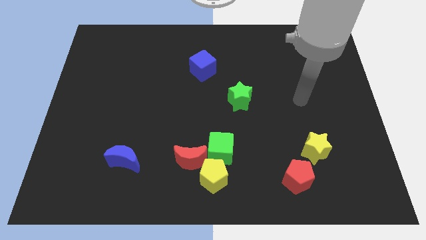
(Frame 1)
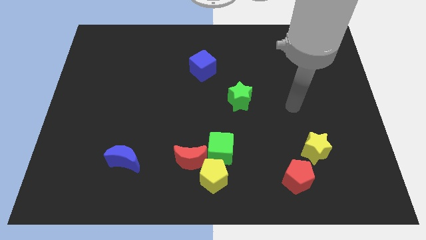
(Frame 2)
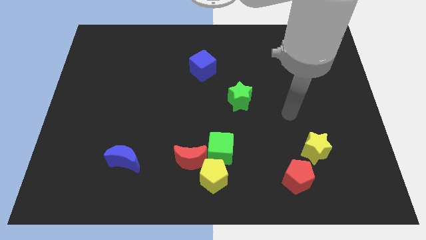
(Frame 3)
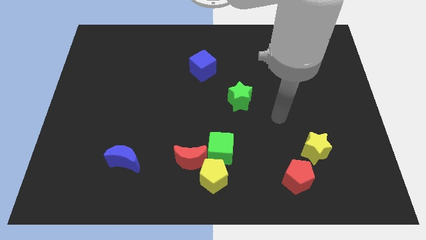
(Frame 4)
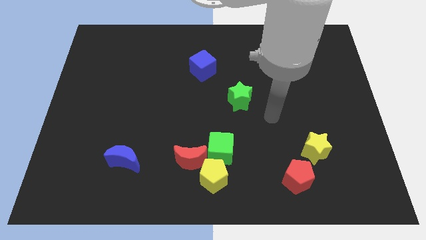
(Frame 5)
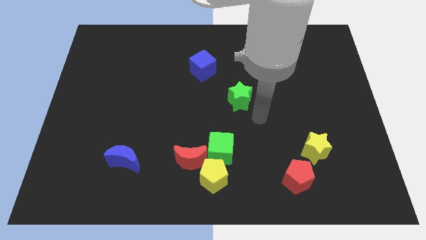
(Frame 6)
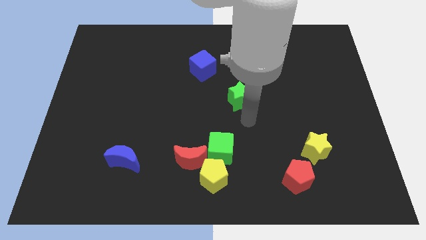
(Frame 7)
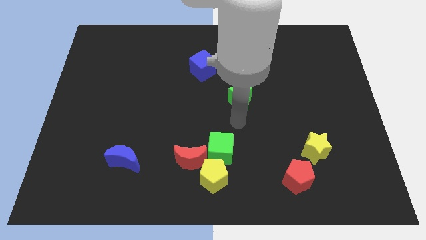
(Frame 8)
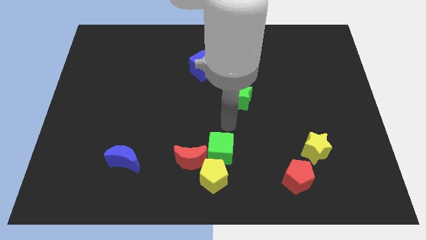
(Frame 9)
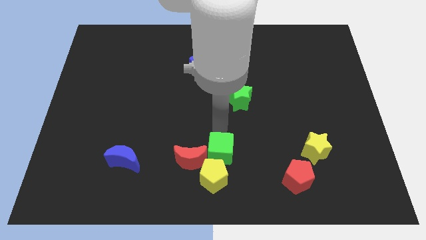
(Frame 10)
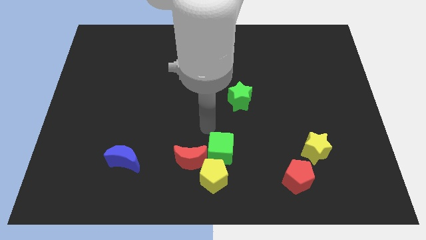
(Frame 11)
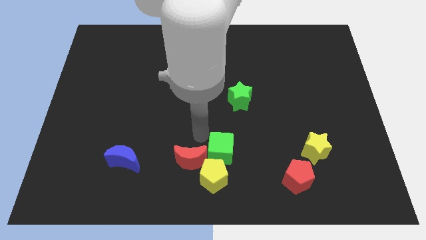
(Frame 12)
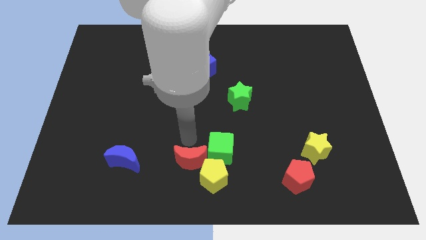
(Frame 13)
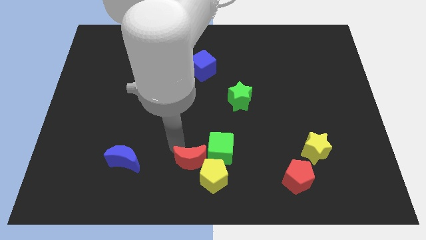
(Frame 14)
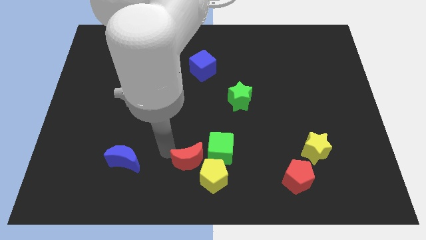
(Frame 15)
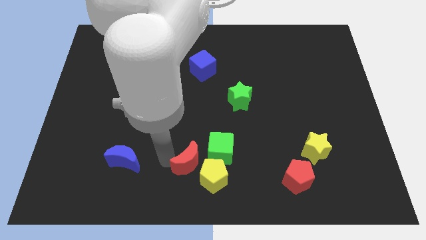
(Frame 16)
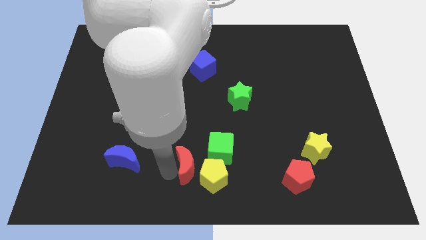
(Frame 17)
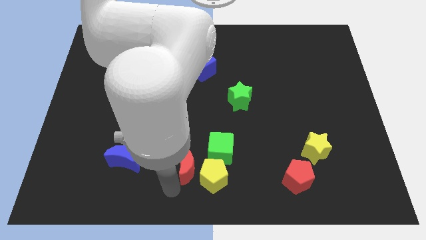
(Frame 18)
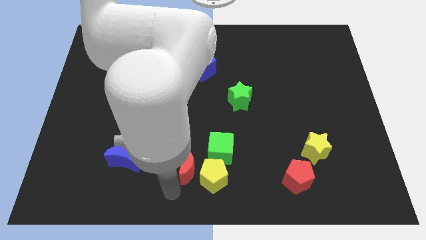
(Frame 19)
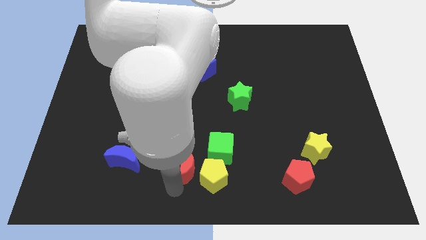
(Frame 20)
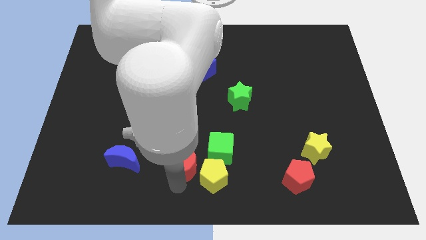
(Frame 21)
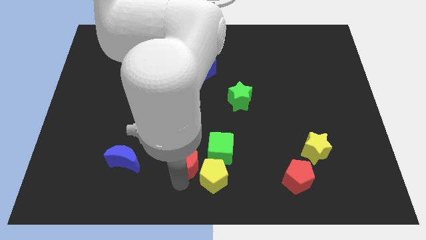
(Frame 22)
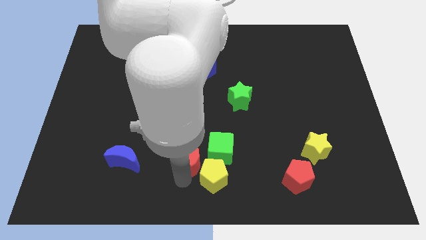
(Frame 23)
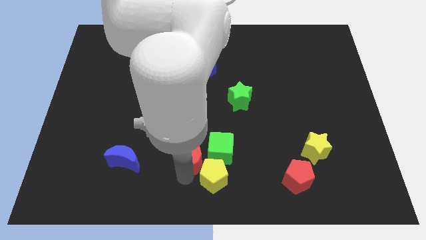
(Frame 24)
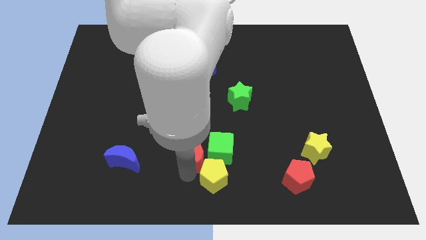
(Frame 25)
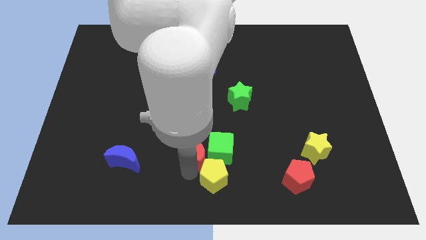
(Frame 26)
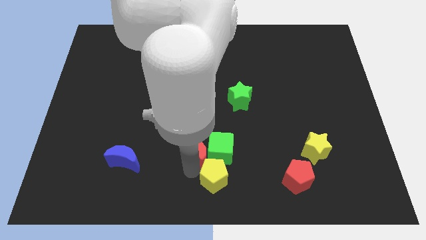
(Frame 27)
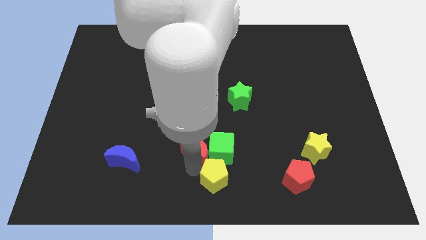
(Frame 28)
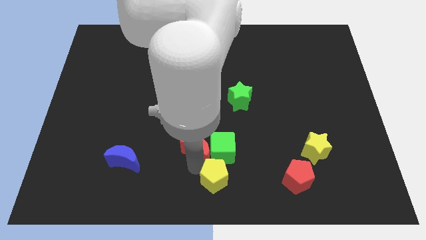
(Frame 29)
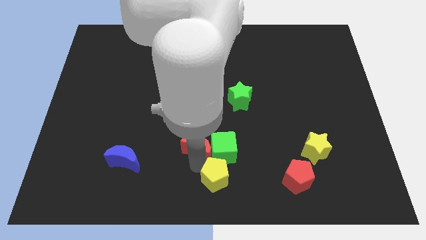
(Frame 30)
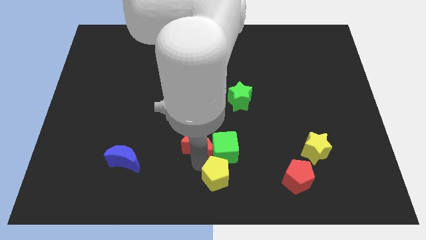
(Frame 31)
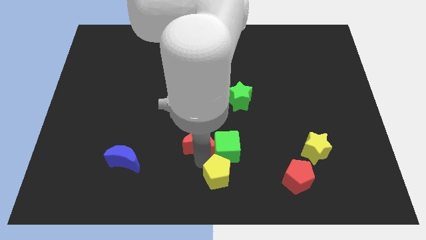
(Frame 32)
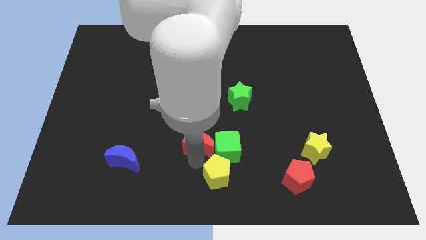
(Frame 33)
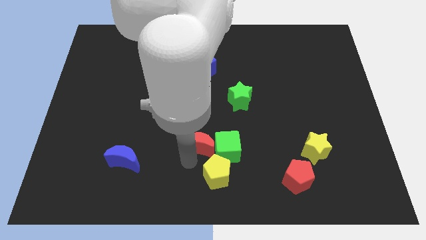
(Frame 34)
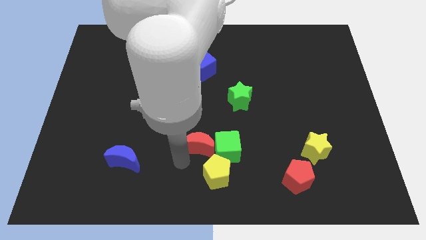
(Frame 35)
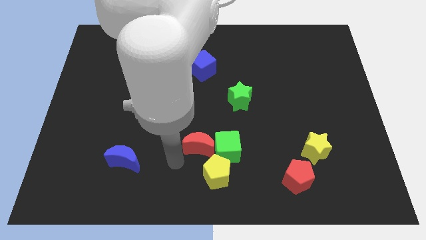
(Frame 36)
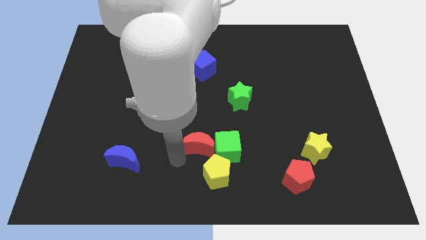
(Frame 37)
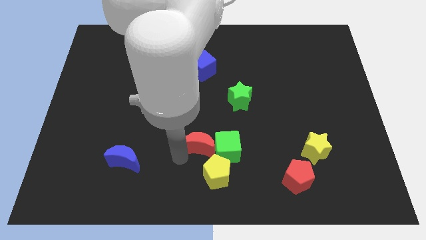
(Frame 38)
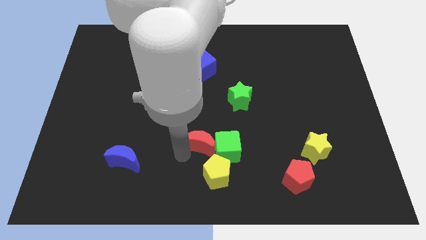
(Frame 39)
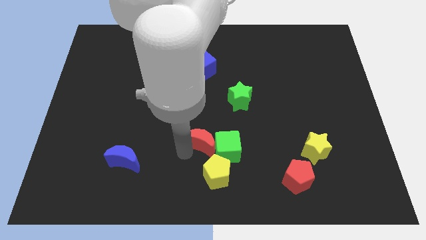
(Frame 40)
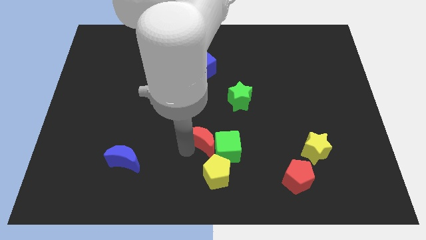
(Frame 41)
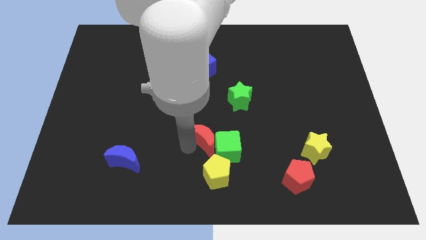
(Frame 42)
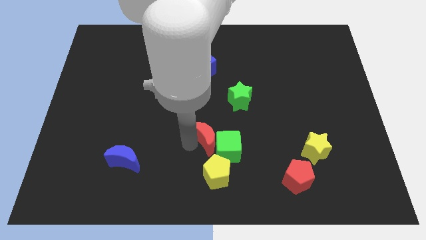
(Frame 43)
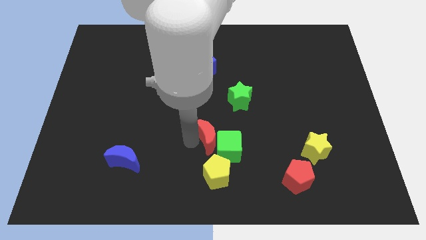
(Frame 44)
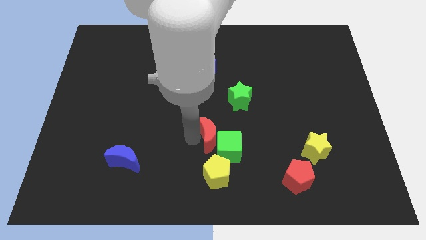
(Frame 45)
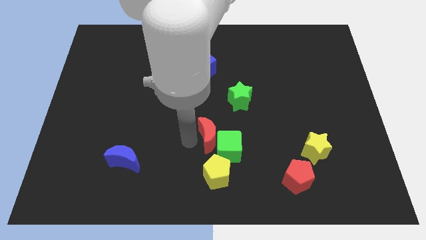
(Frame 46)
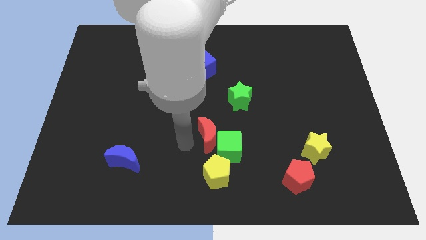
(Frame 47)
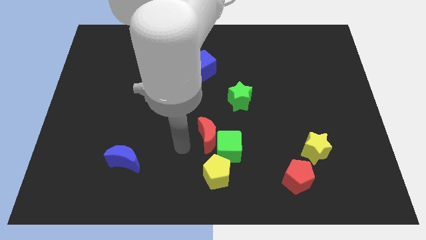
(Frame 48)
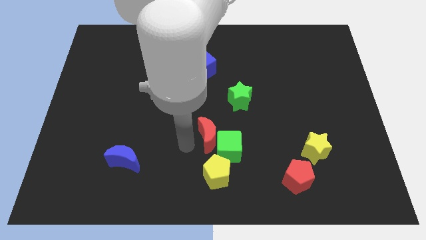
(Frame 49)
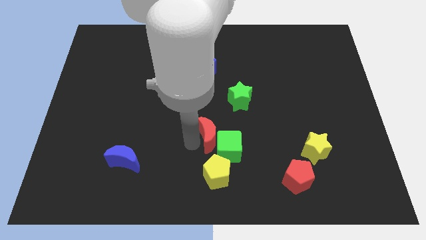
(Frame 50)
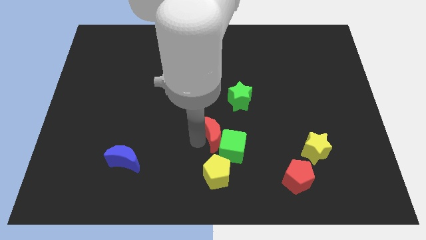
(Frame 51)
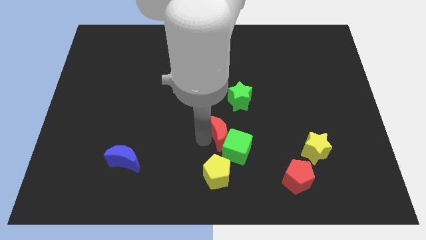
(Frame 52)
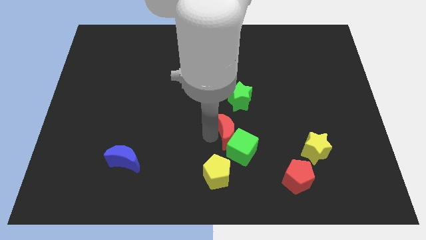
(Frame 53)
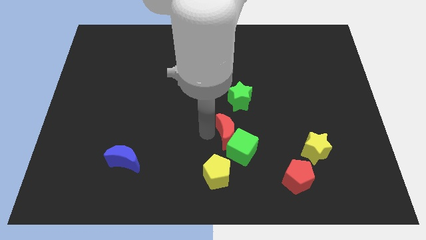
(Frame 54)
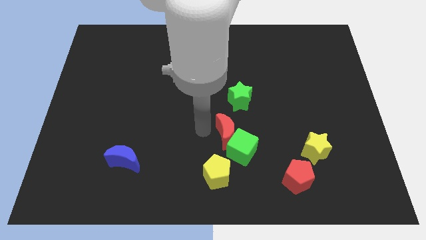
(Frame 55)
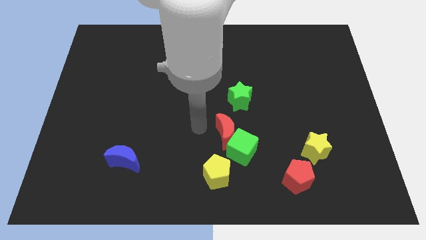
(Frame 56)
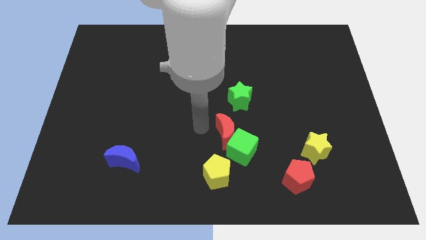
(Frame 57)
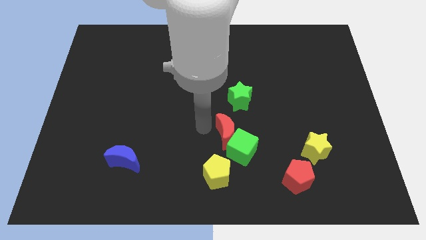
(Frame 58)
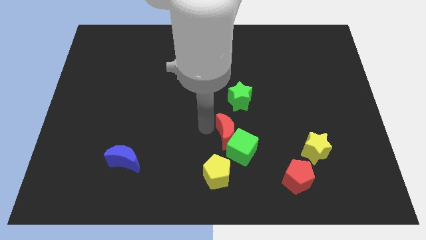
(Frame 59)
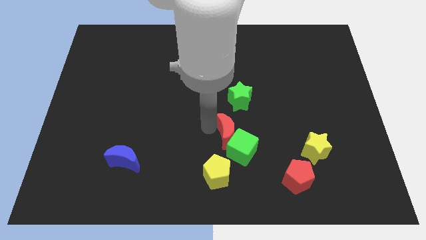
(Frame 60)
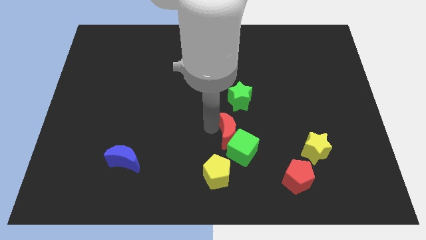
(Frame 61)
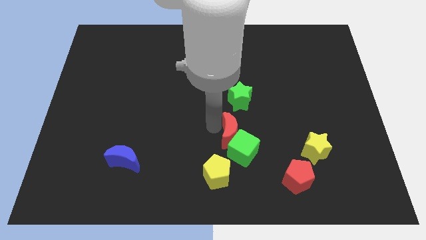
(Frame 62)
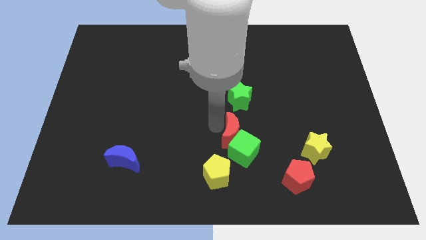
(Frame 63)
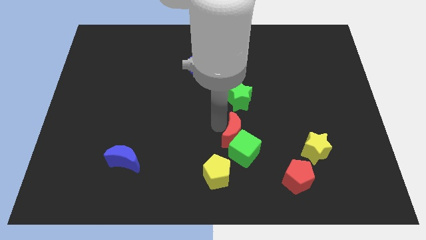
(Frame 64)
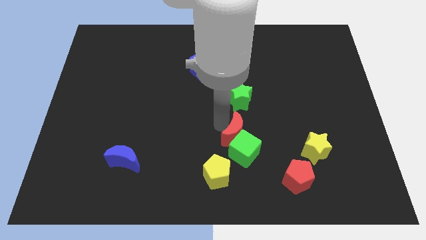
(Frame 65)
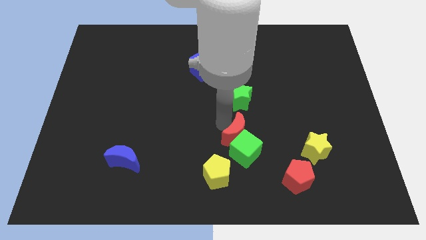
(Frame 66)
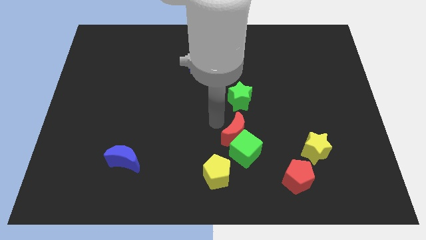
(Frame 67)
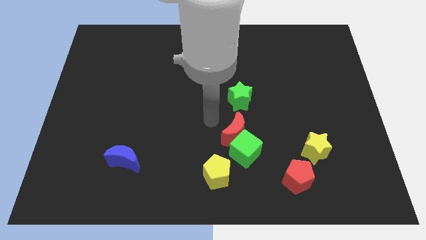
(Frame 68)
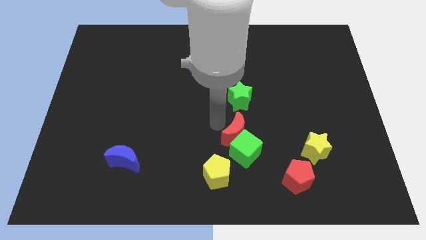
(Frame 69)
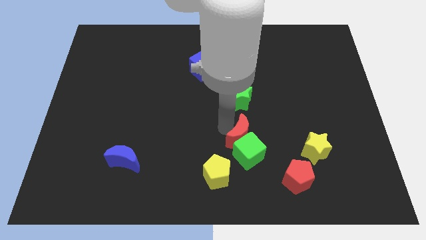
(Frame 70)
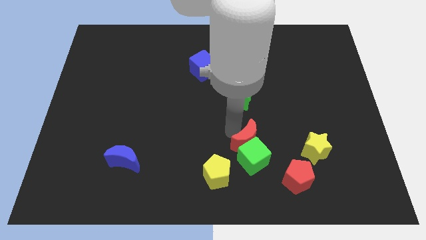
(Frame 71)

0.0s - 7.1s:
push the red moon to the left side of the yellow star
